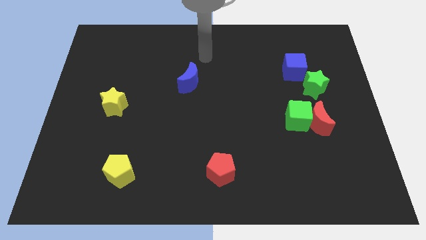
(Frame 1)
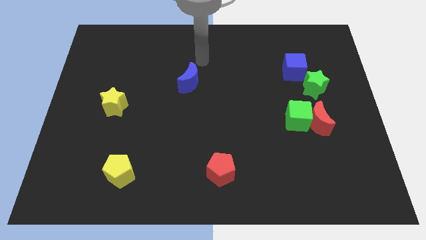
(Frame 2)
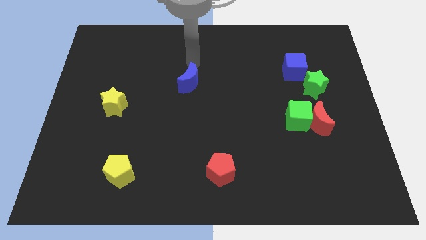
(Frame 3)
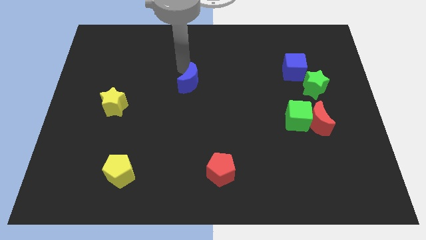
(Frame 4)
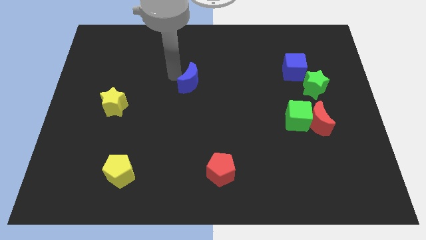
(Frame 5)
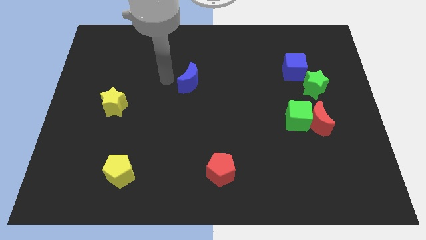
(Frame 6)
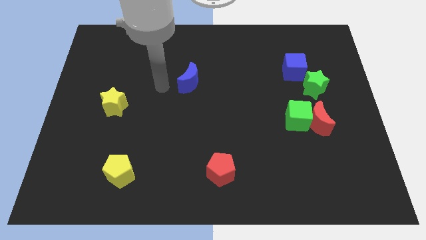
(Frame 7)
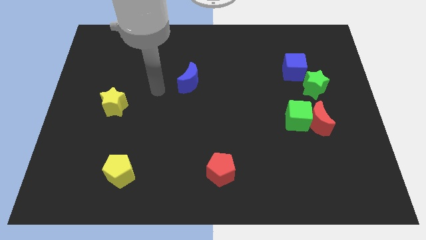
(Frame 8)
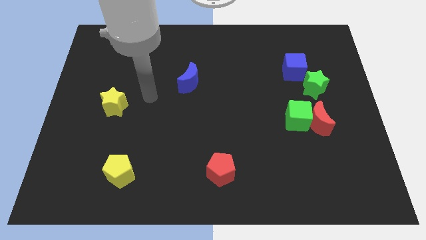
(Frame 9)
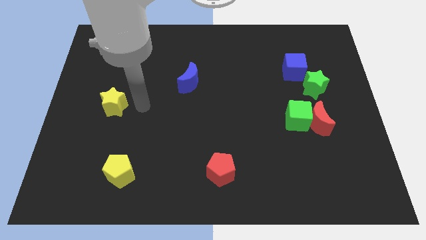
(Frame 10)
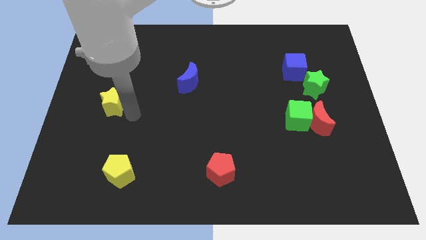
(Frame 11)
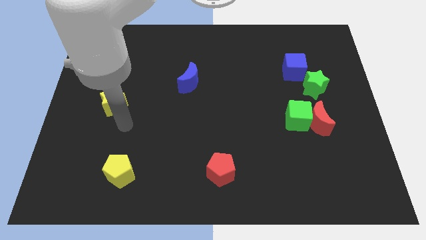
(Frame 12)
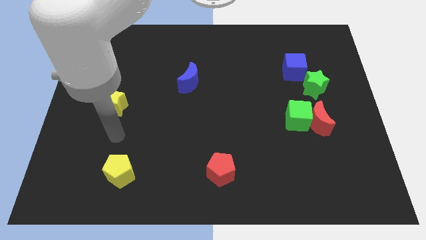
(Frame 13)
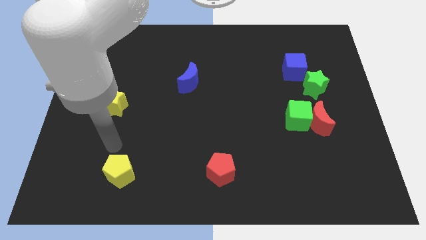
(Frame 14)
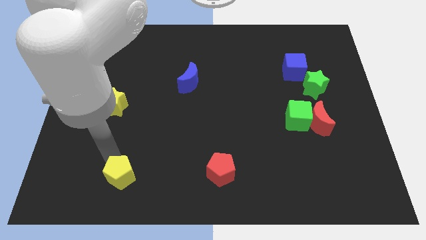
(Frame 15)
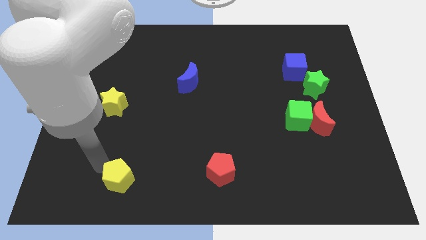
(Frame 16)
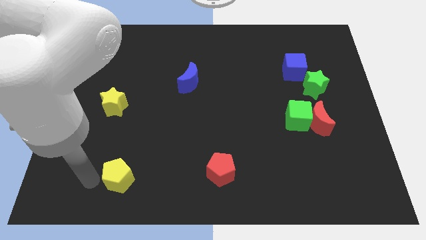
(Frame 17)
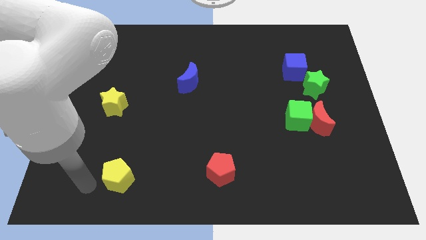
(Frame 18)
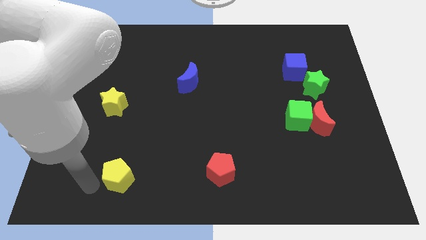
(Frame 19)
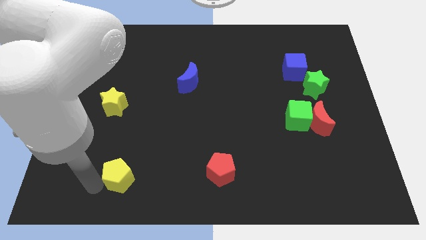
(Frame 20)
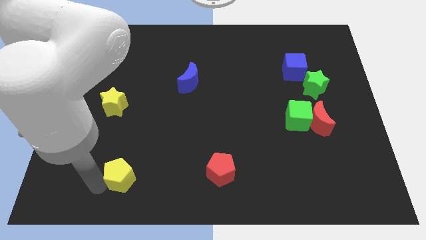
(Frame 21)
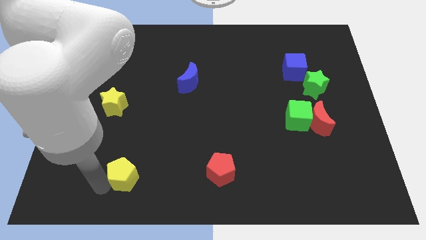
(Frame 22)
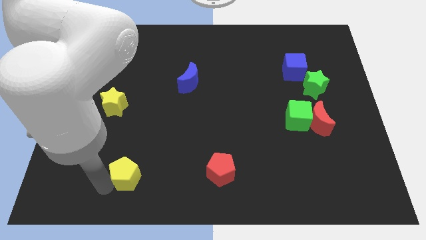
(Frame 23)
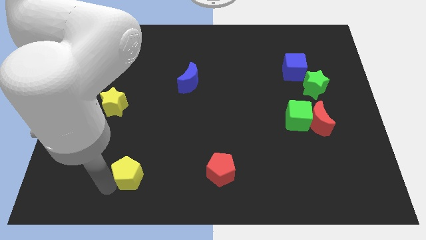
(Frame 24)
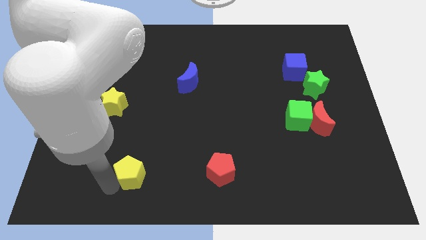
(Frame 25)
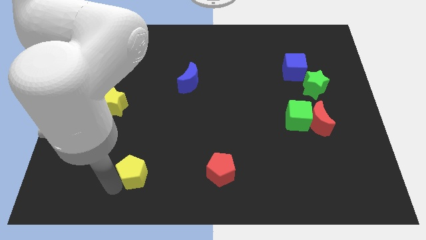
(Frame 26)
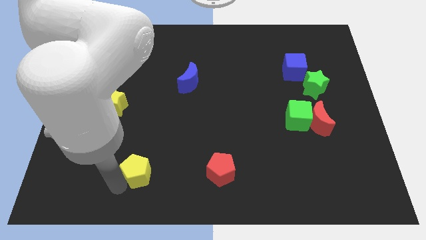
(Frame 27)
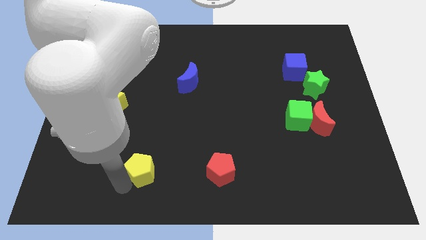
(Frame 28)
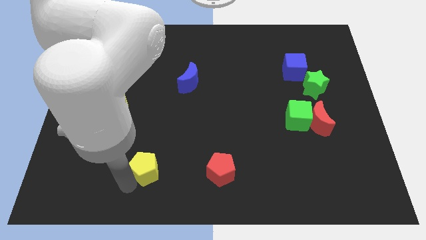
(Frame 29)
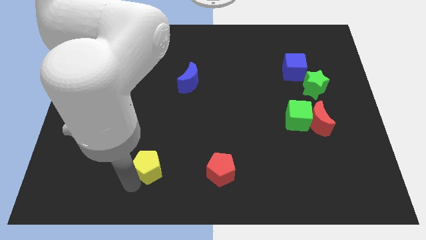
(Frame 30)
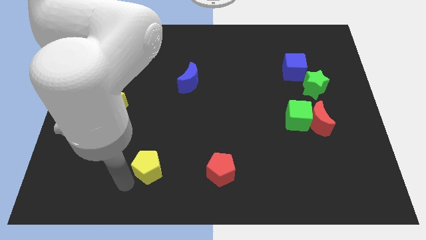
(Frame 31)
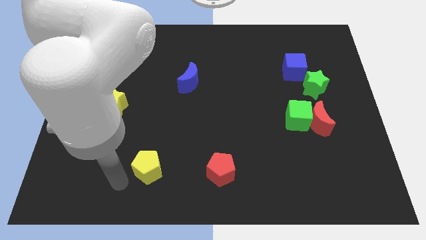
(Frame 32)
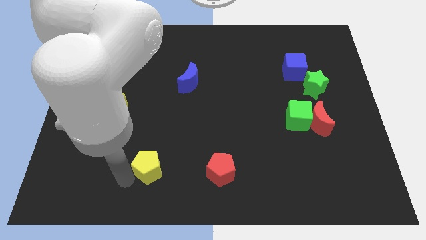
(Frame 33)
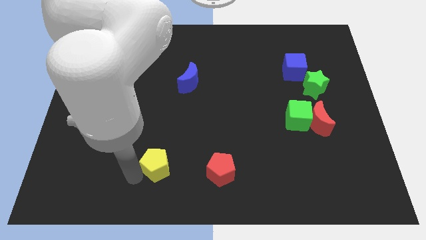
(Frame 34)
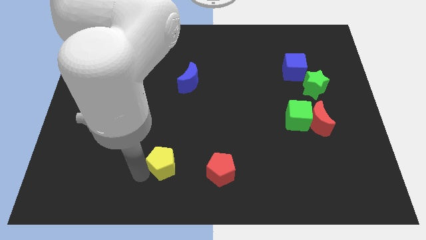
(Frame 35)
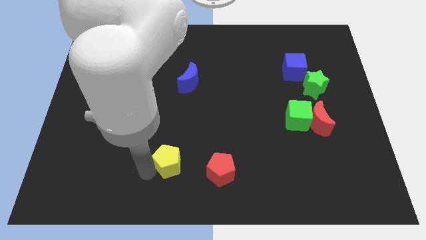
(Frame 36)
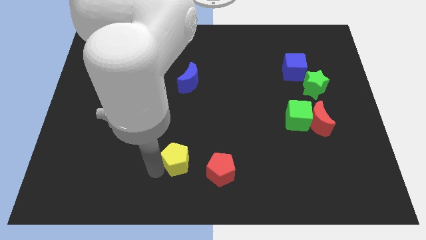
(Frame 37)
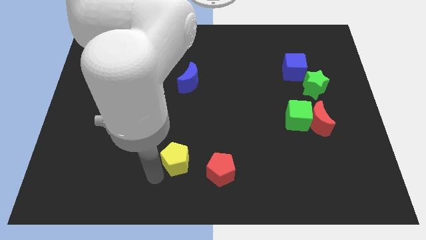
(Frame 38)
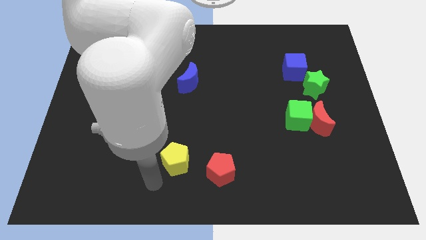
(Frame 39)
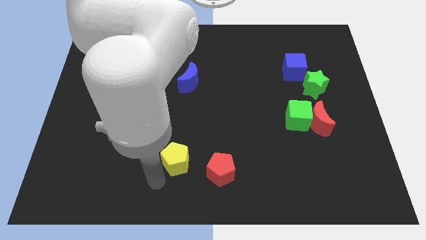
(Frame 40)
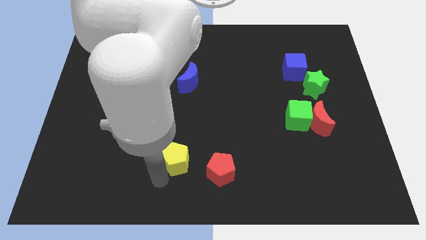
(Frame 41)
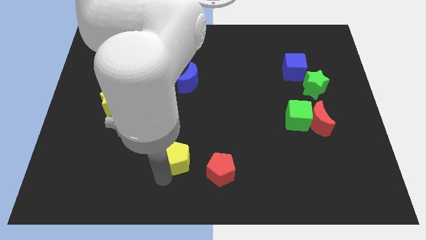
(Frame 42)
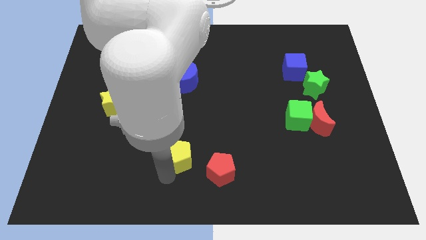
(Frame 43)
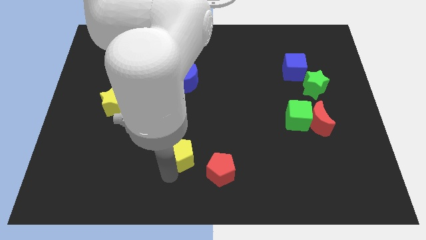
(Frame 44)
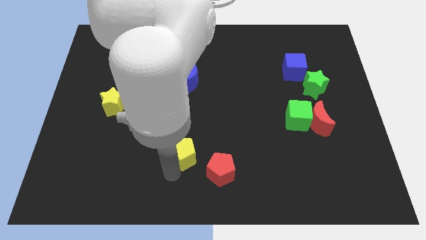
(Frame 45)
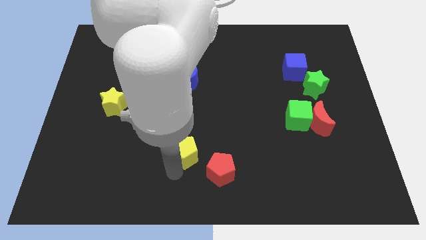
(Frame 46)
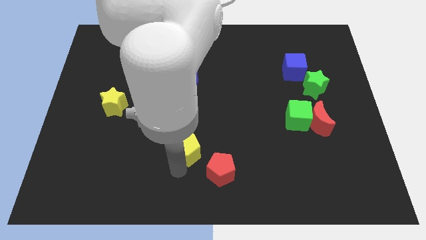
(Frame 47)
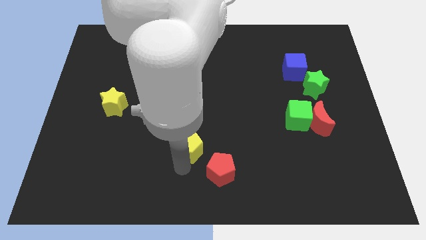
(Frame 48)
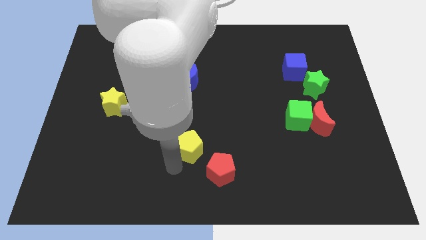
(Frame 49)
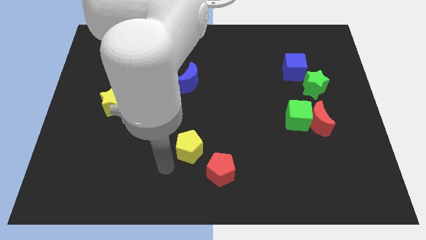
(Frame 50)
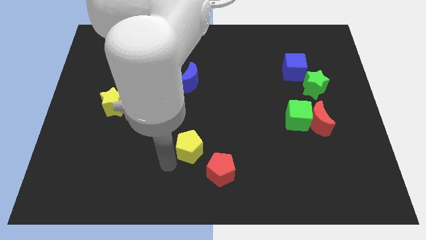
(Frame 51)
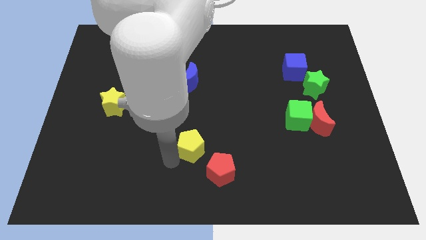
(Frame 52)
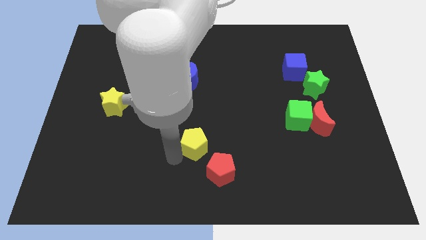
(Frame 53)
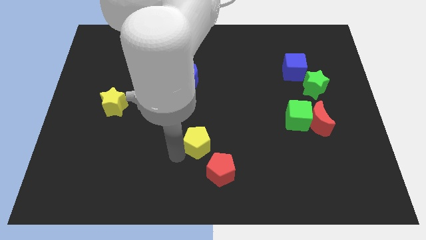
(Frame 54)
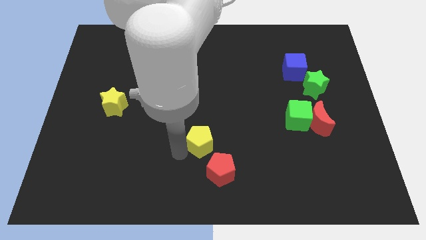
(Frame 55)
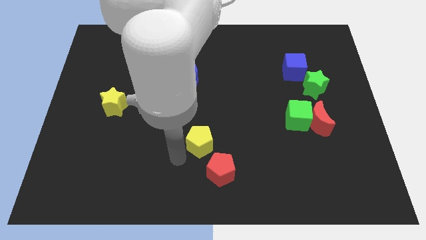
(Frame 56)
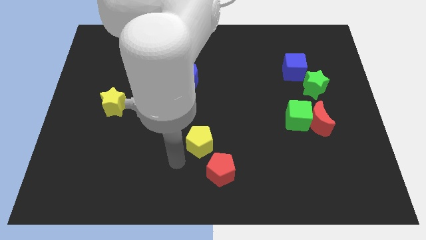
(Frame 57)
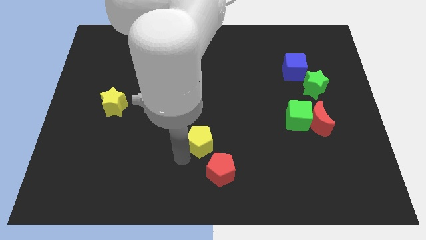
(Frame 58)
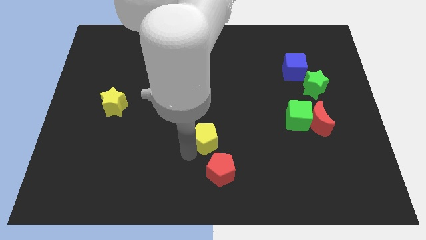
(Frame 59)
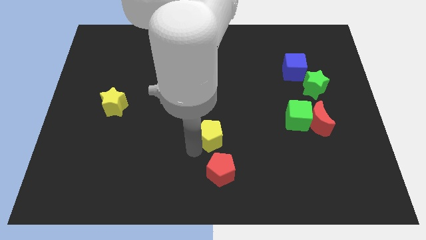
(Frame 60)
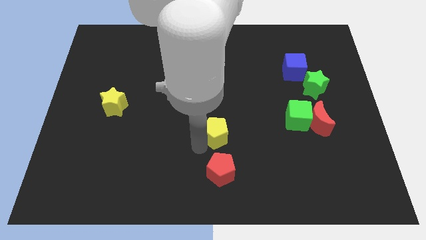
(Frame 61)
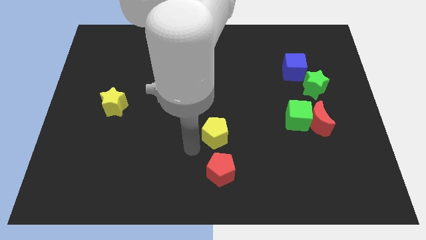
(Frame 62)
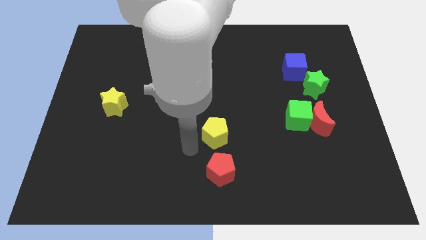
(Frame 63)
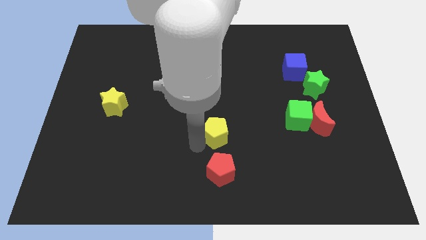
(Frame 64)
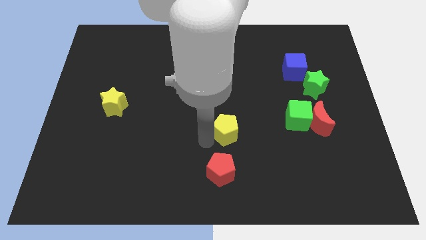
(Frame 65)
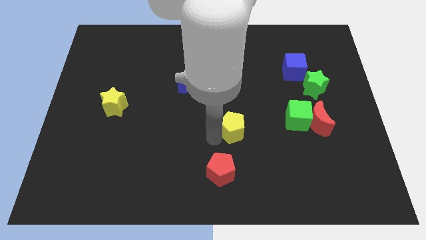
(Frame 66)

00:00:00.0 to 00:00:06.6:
slide the yellow pentagon left of the green cube
